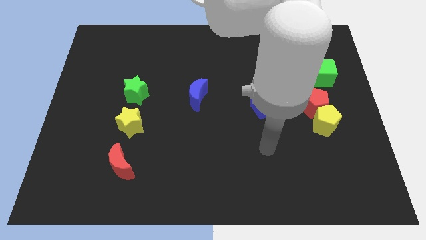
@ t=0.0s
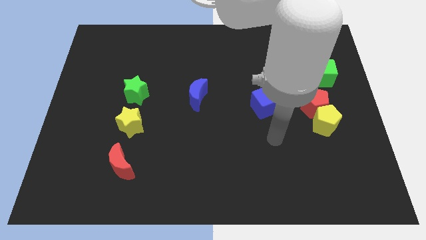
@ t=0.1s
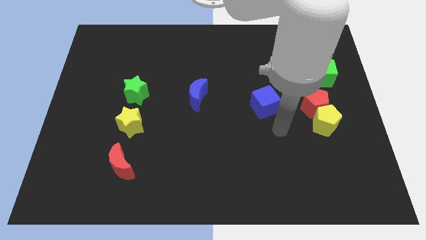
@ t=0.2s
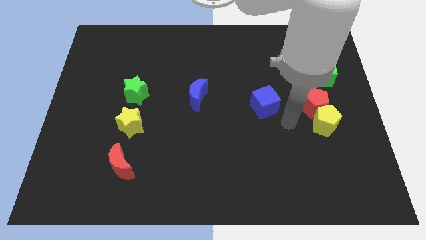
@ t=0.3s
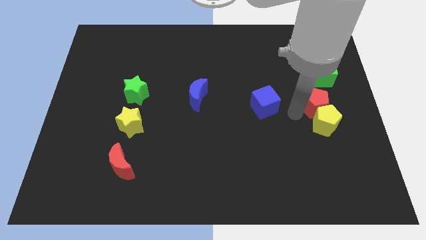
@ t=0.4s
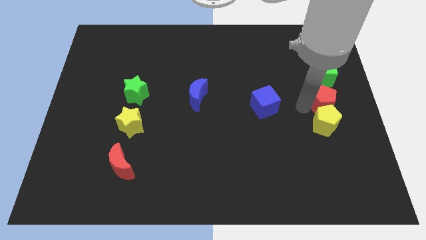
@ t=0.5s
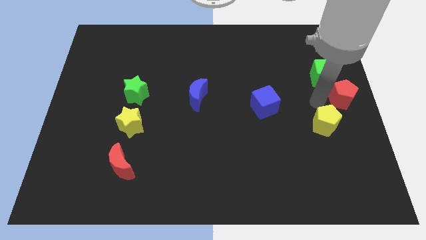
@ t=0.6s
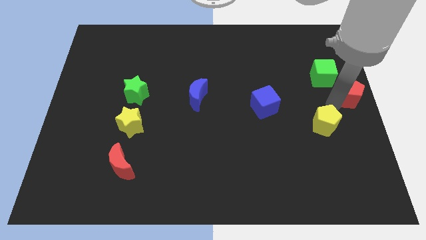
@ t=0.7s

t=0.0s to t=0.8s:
move the yellow pentagon away from the red pentagon

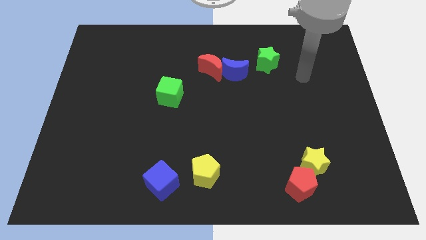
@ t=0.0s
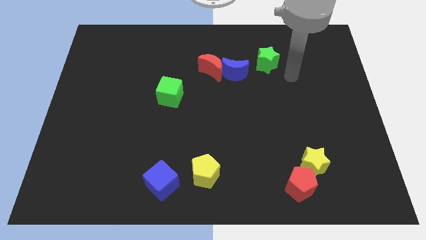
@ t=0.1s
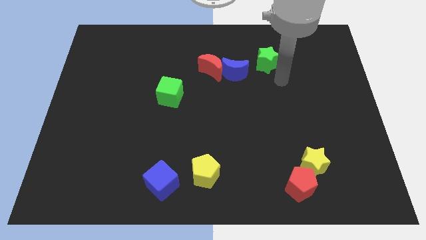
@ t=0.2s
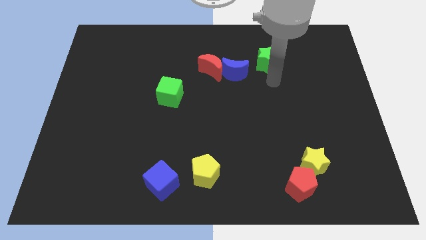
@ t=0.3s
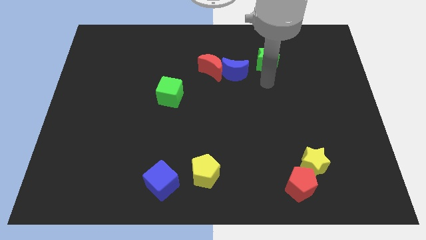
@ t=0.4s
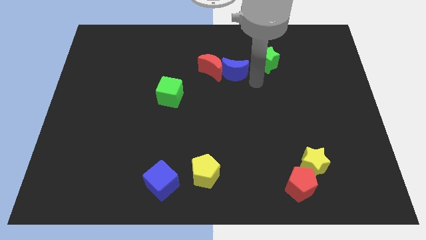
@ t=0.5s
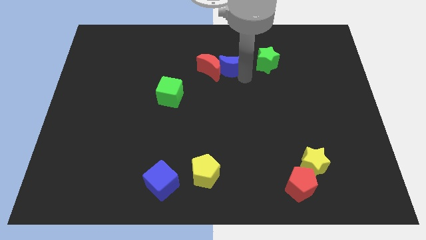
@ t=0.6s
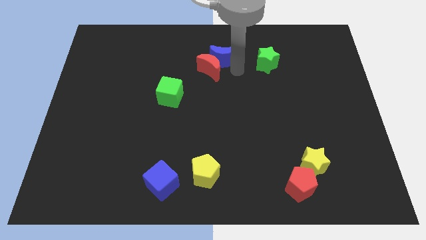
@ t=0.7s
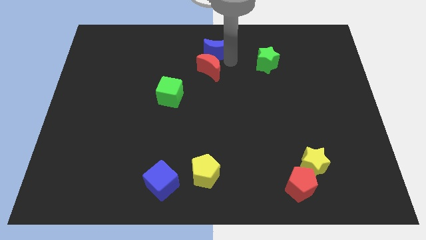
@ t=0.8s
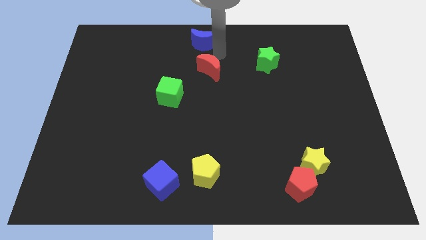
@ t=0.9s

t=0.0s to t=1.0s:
move the red moon away from the blue moon

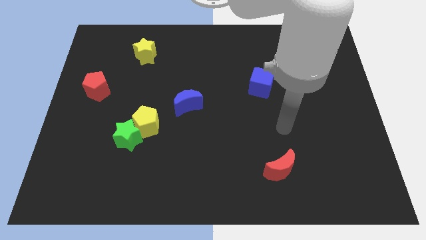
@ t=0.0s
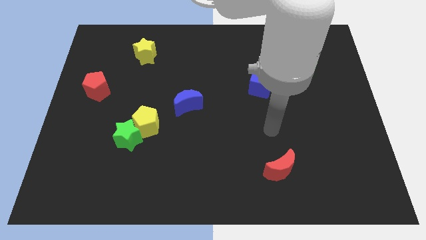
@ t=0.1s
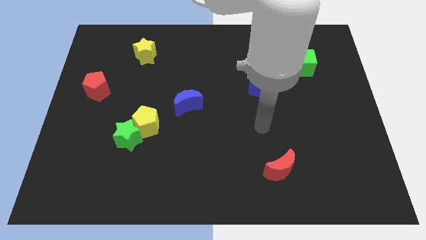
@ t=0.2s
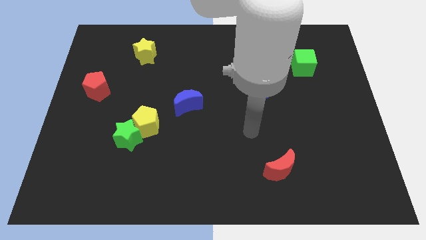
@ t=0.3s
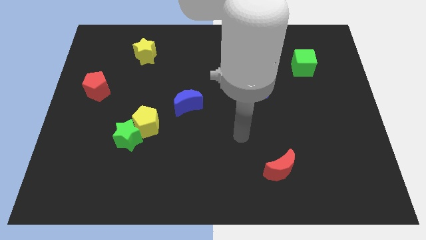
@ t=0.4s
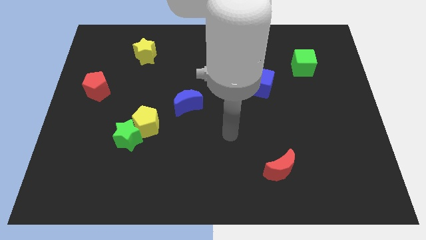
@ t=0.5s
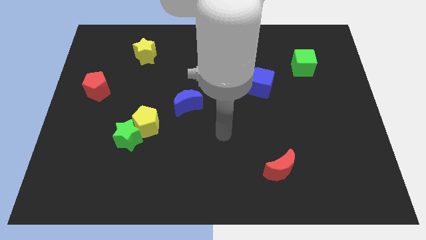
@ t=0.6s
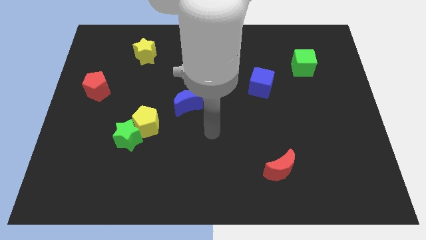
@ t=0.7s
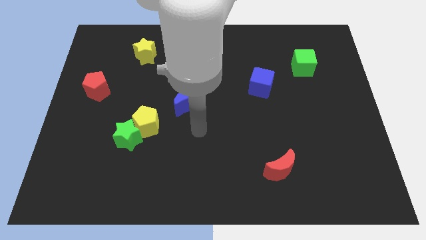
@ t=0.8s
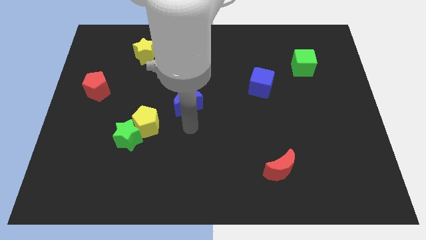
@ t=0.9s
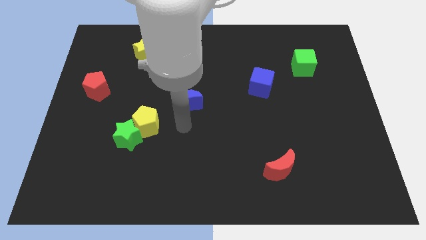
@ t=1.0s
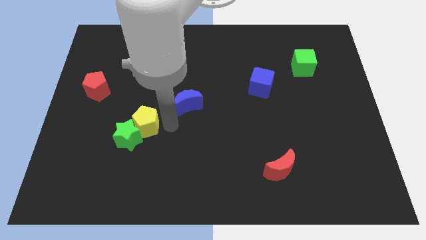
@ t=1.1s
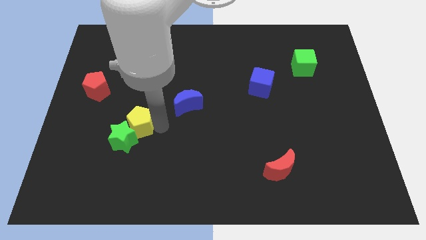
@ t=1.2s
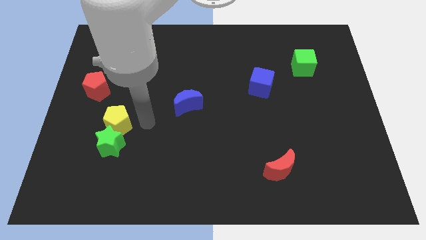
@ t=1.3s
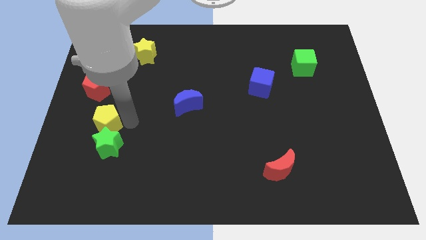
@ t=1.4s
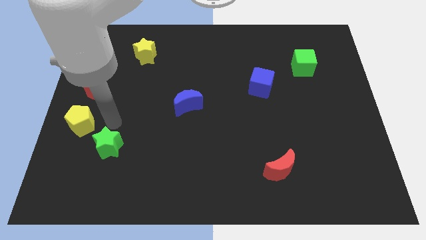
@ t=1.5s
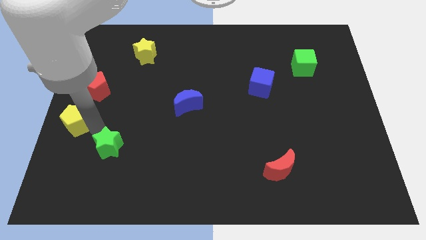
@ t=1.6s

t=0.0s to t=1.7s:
pull the green star apart from the yellow pentagon

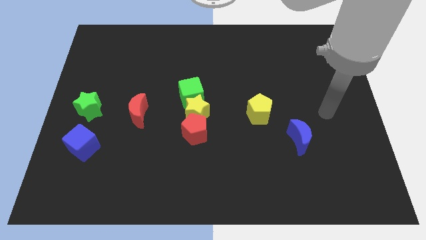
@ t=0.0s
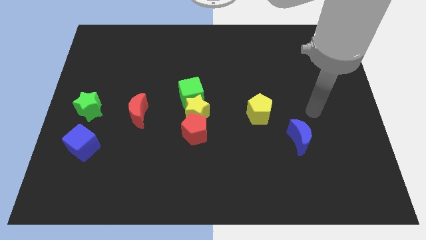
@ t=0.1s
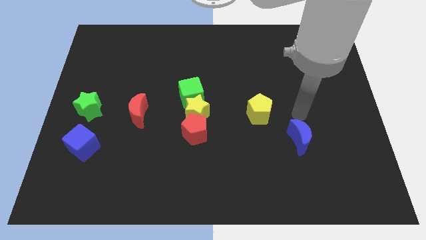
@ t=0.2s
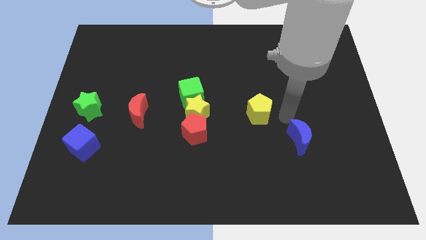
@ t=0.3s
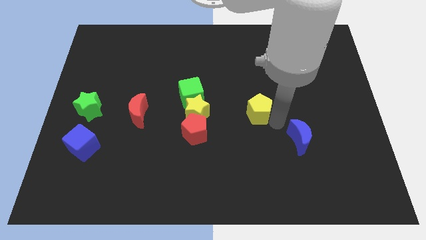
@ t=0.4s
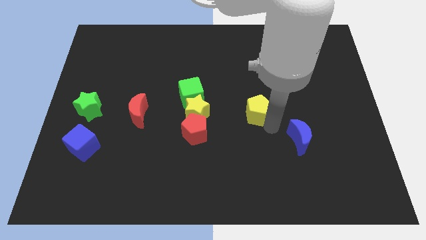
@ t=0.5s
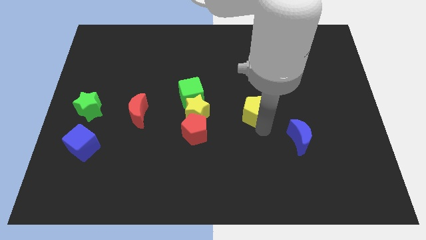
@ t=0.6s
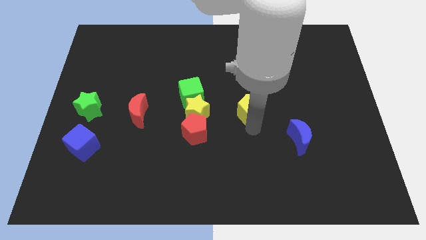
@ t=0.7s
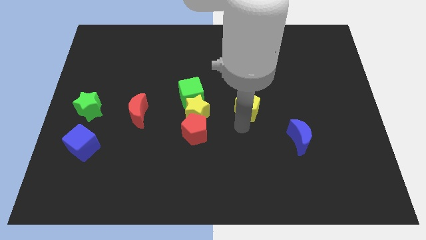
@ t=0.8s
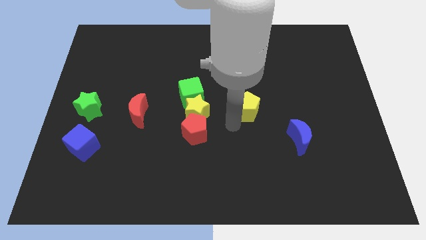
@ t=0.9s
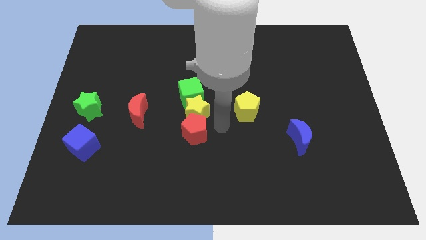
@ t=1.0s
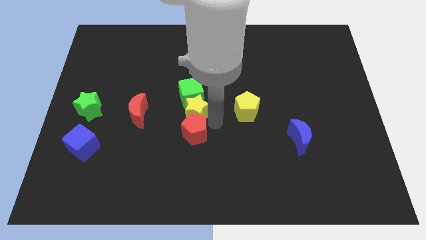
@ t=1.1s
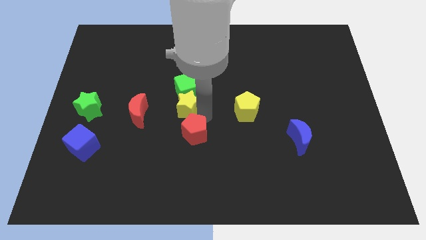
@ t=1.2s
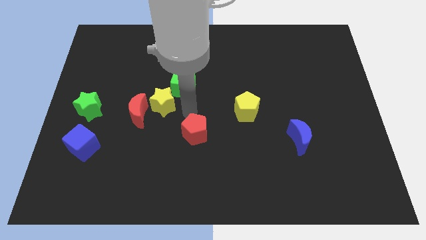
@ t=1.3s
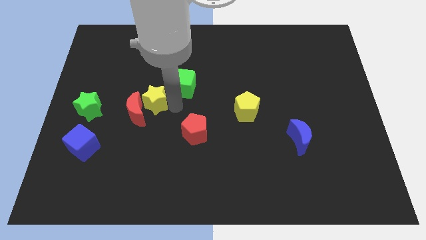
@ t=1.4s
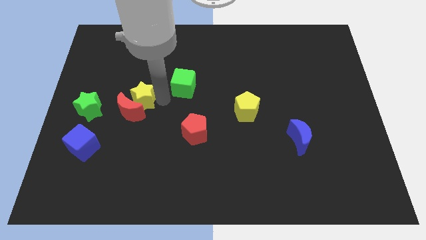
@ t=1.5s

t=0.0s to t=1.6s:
move the green cube away from the yellow star

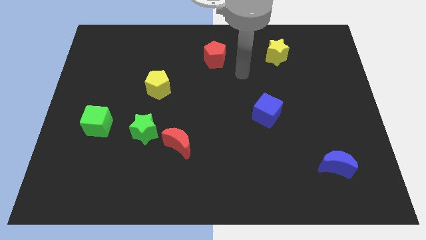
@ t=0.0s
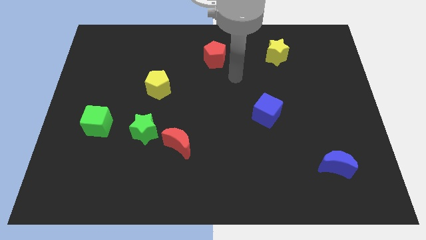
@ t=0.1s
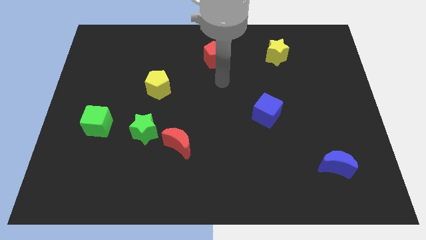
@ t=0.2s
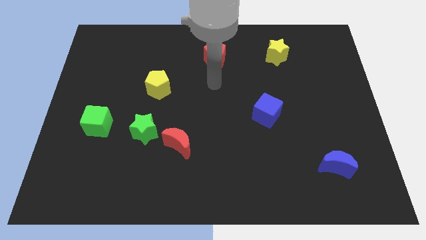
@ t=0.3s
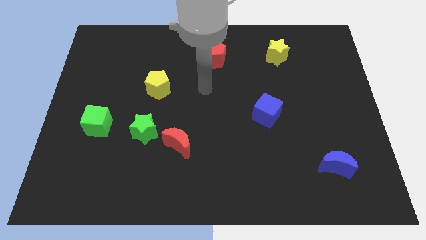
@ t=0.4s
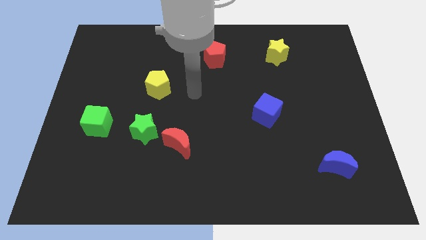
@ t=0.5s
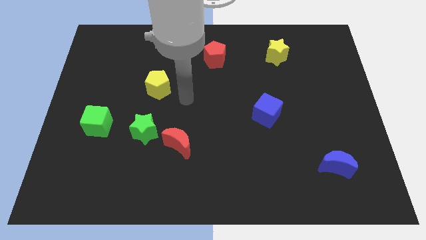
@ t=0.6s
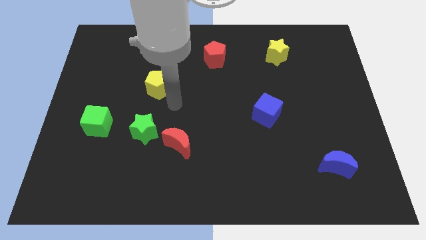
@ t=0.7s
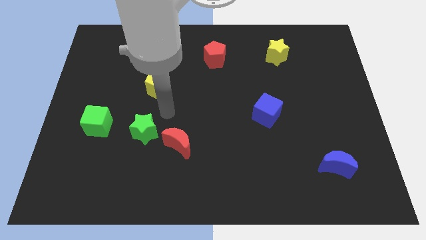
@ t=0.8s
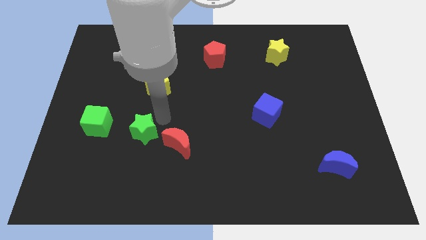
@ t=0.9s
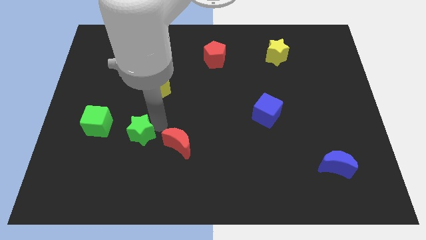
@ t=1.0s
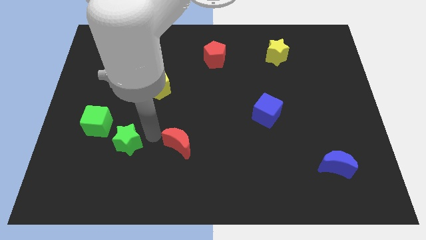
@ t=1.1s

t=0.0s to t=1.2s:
pull the red moon apart from the green star

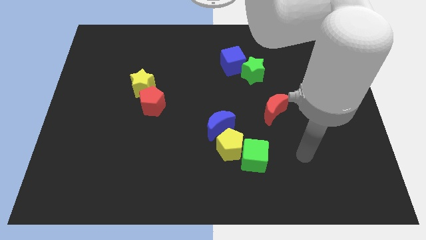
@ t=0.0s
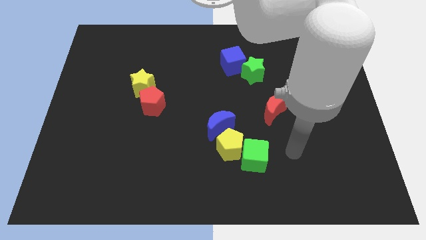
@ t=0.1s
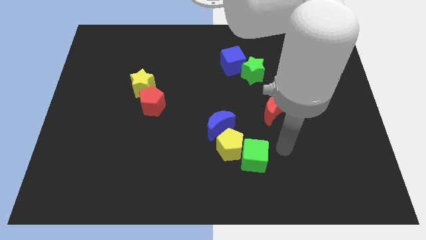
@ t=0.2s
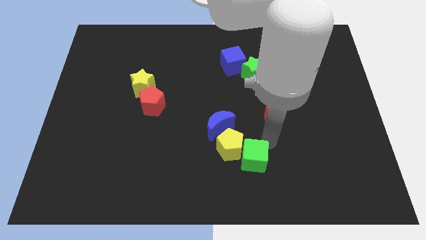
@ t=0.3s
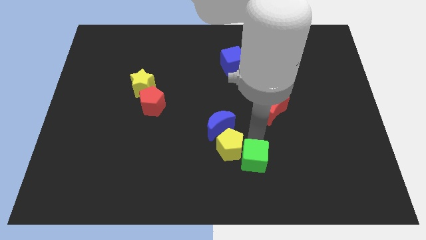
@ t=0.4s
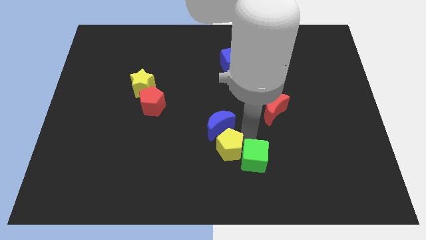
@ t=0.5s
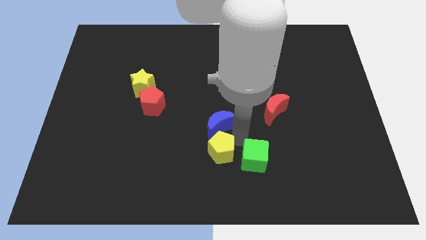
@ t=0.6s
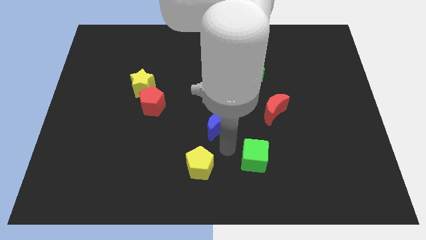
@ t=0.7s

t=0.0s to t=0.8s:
move the green cube away from the yellow pentagon

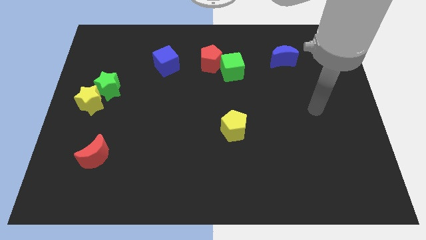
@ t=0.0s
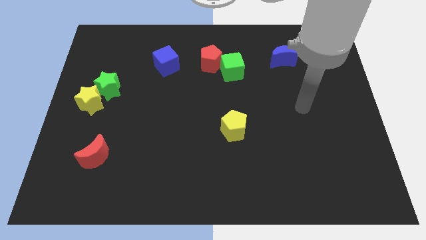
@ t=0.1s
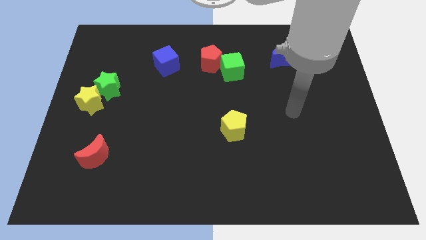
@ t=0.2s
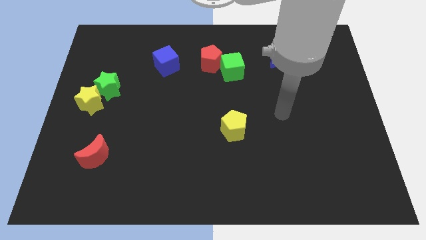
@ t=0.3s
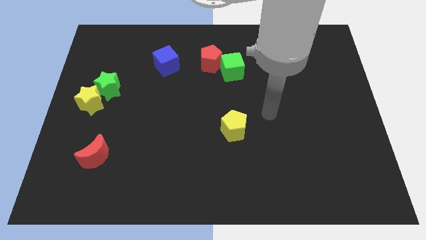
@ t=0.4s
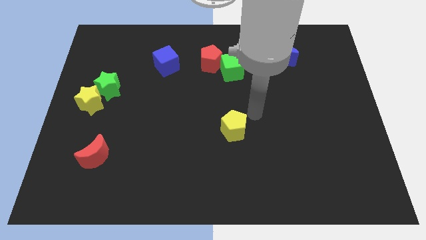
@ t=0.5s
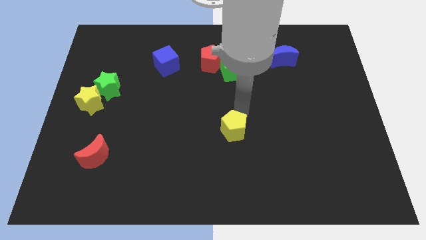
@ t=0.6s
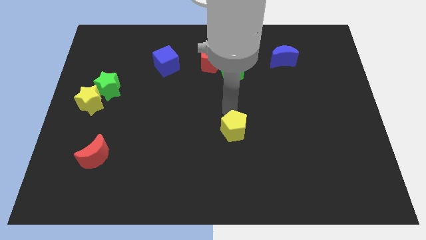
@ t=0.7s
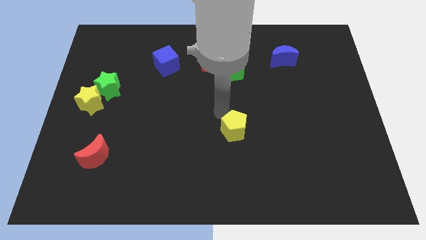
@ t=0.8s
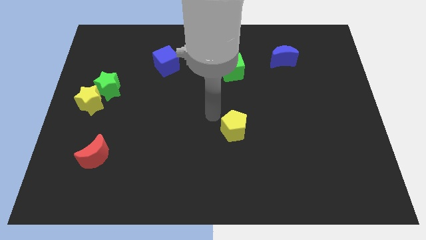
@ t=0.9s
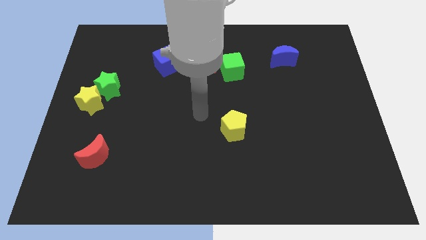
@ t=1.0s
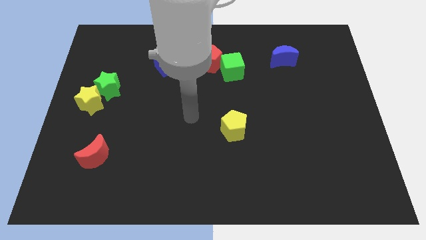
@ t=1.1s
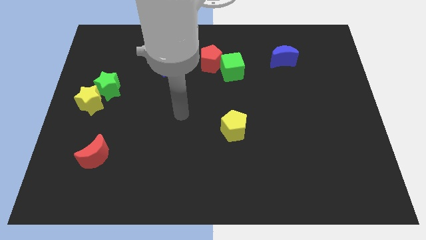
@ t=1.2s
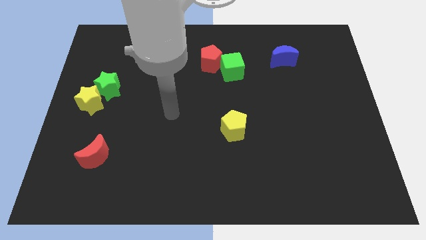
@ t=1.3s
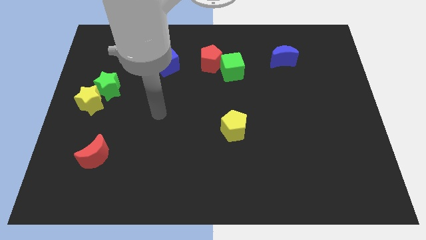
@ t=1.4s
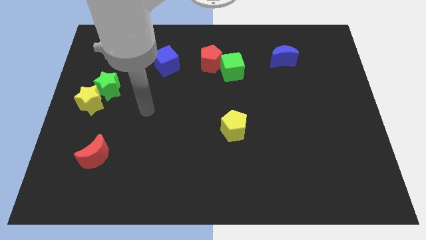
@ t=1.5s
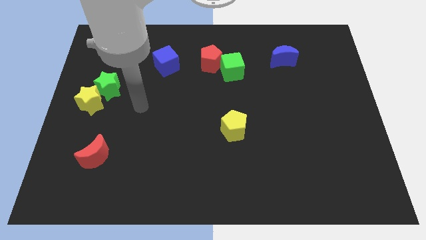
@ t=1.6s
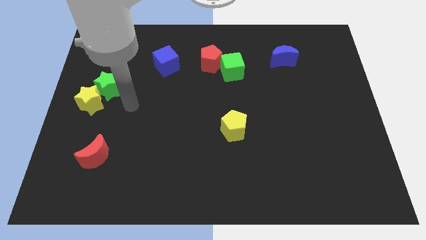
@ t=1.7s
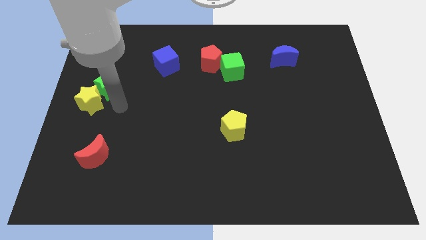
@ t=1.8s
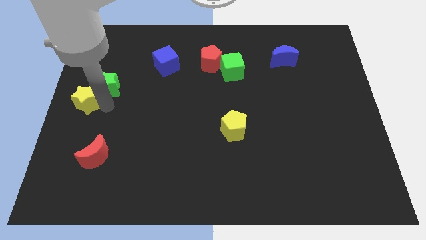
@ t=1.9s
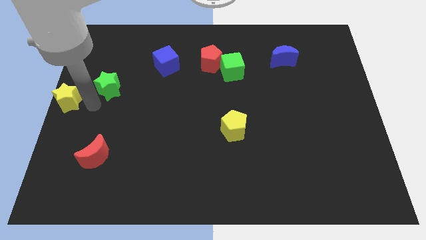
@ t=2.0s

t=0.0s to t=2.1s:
move the green star away from the yellow star
